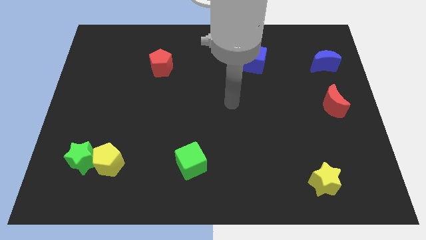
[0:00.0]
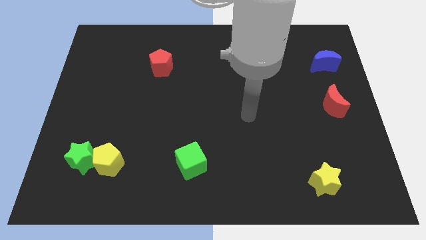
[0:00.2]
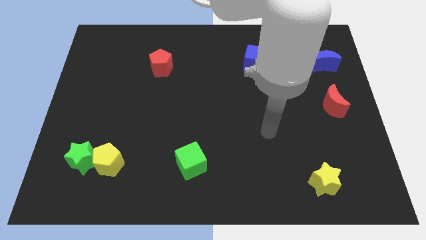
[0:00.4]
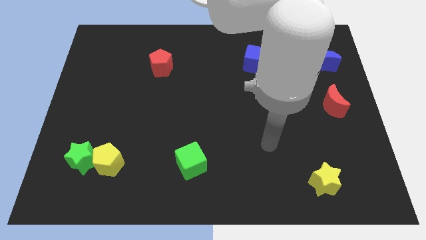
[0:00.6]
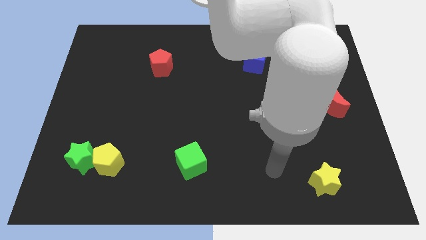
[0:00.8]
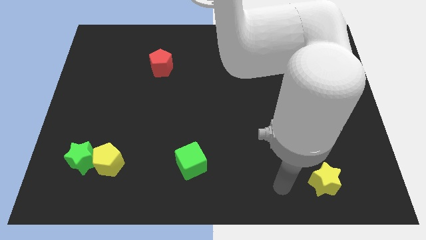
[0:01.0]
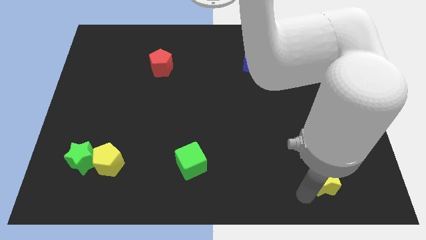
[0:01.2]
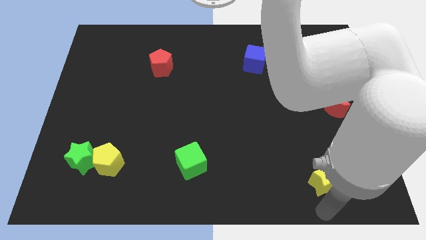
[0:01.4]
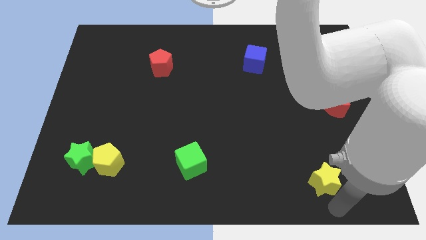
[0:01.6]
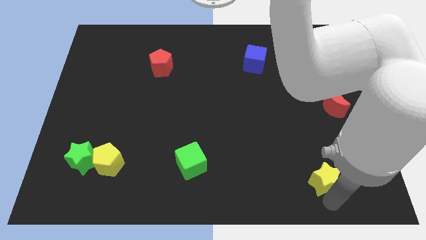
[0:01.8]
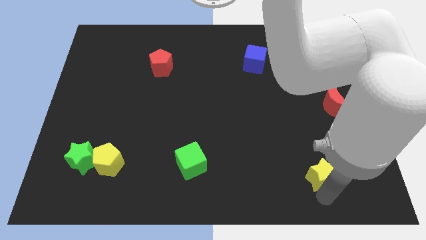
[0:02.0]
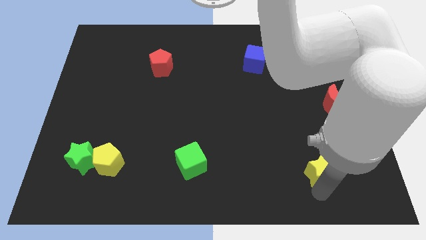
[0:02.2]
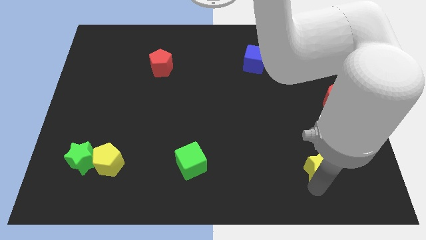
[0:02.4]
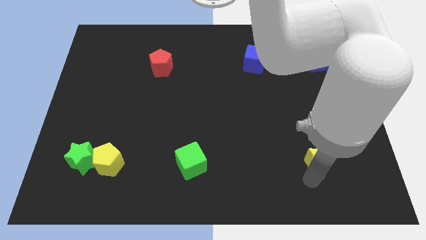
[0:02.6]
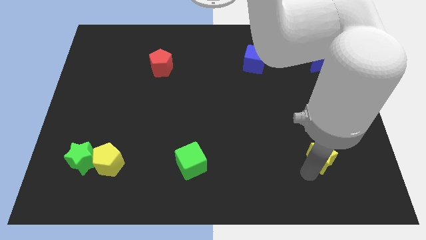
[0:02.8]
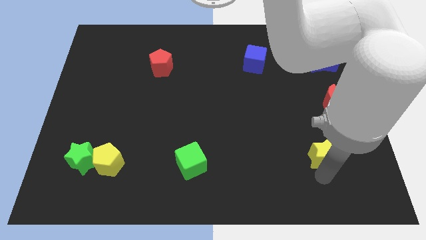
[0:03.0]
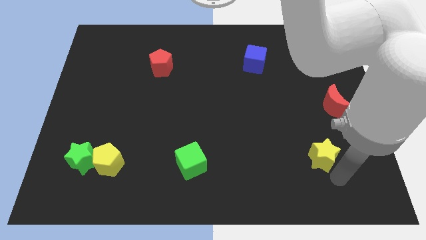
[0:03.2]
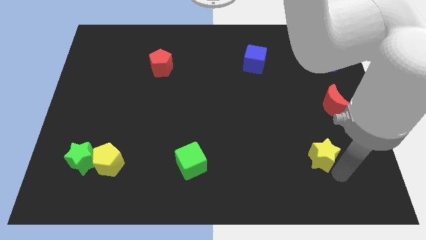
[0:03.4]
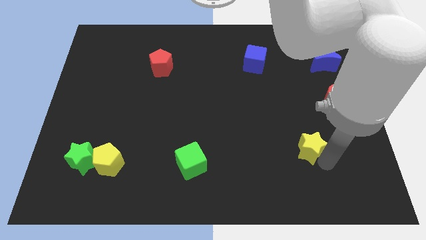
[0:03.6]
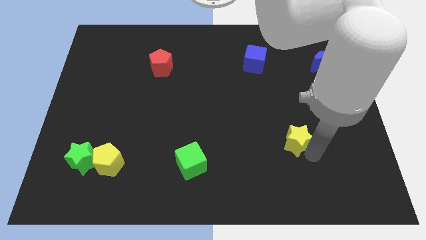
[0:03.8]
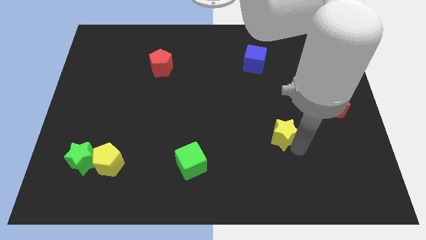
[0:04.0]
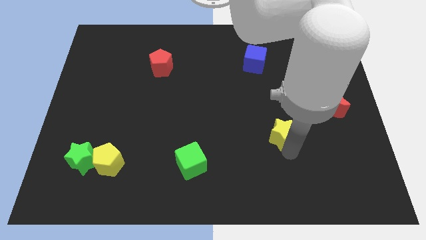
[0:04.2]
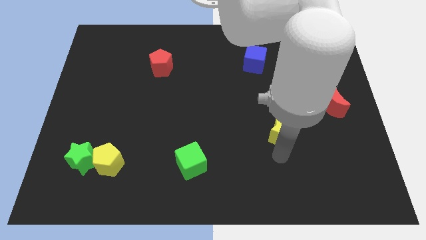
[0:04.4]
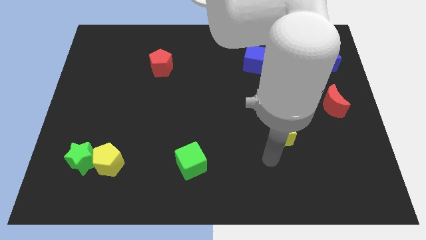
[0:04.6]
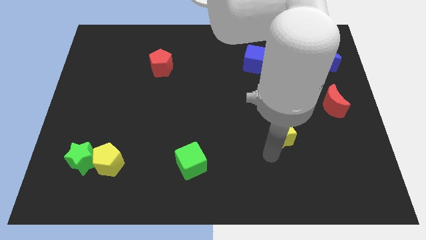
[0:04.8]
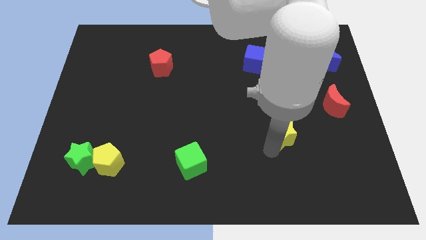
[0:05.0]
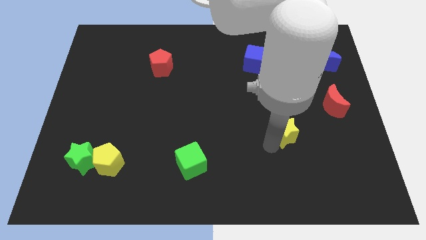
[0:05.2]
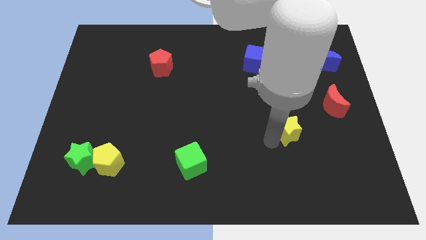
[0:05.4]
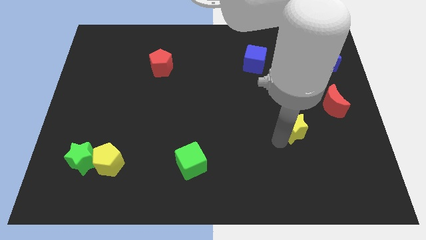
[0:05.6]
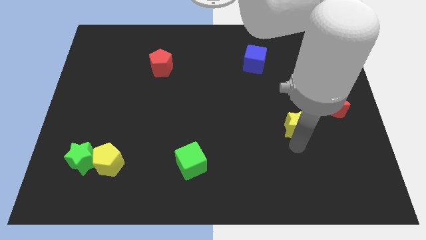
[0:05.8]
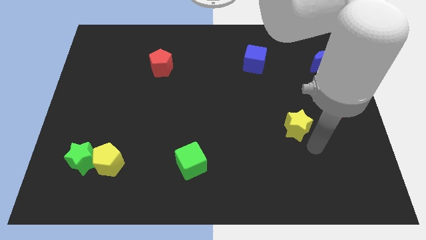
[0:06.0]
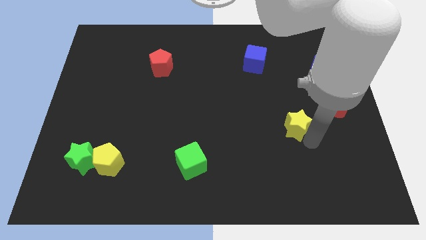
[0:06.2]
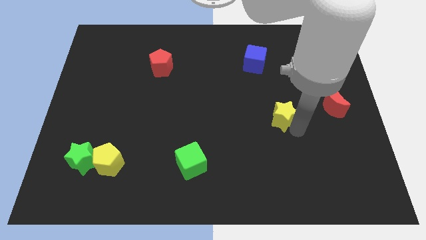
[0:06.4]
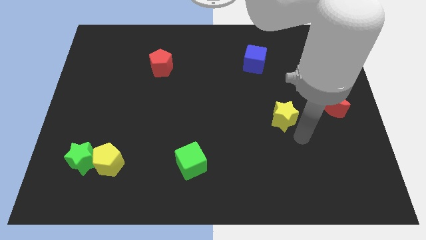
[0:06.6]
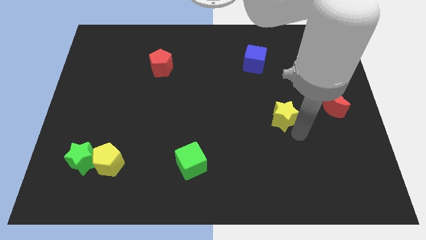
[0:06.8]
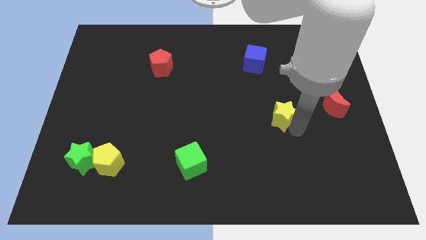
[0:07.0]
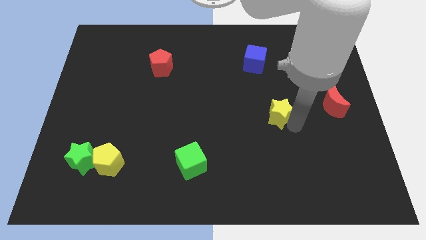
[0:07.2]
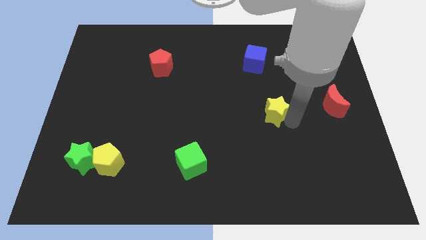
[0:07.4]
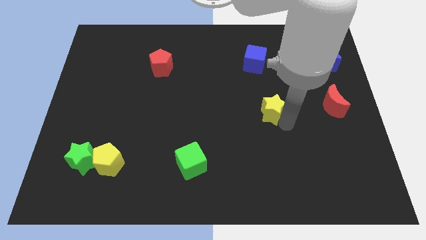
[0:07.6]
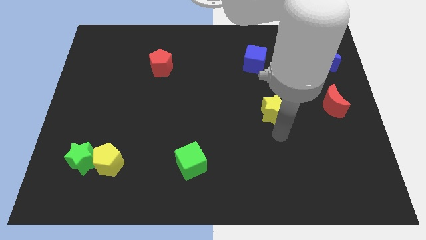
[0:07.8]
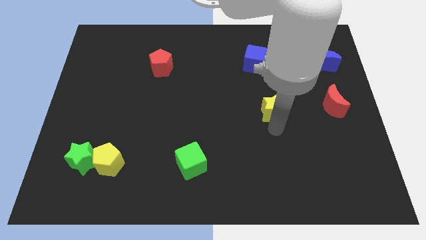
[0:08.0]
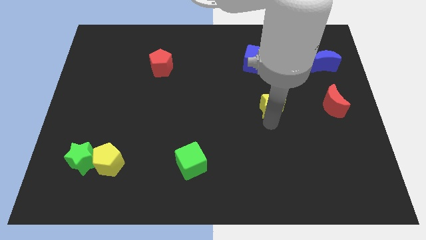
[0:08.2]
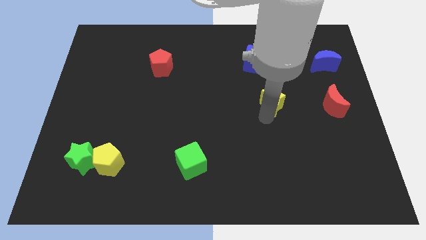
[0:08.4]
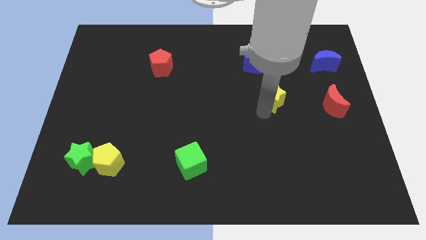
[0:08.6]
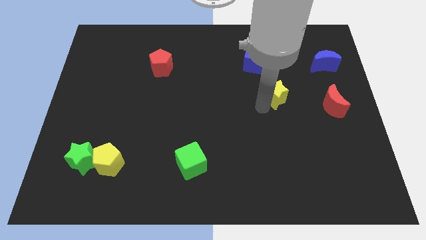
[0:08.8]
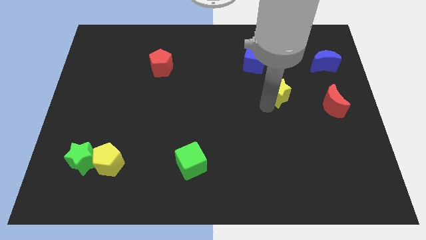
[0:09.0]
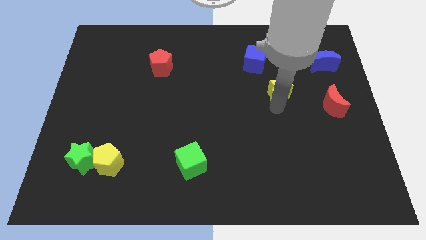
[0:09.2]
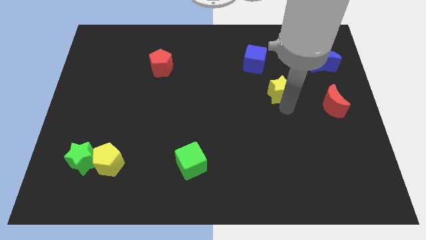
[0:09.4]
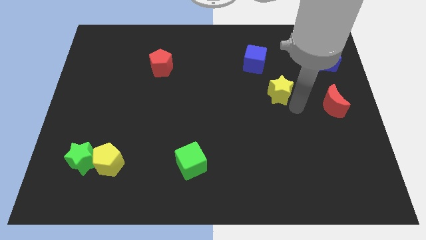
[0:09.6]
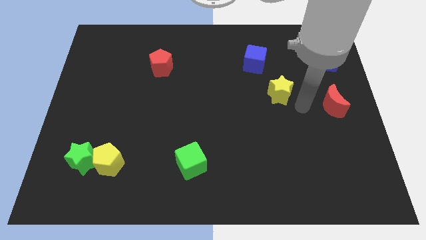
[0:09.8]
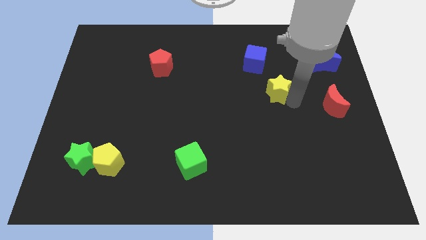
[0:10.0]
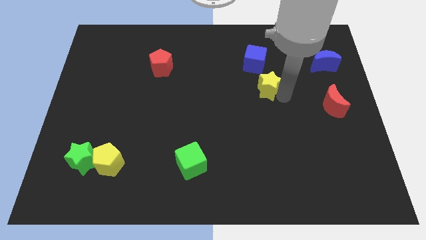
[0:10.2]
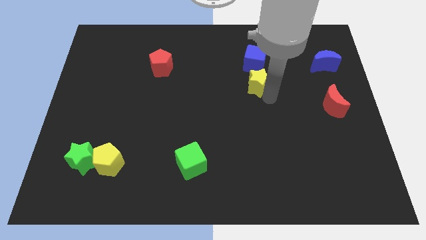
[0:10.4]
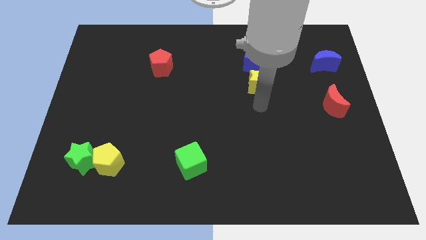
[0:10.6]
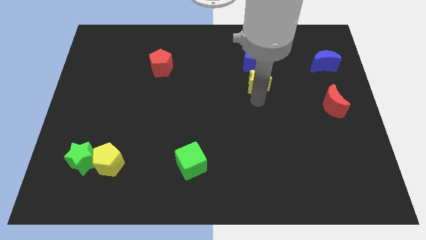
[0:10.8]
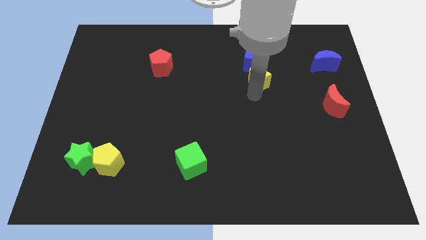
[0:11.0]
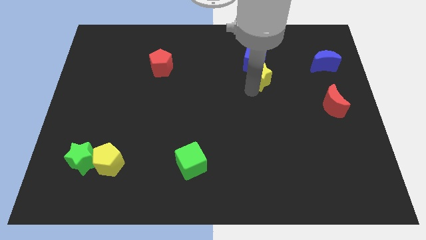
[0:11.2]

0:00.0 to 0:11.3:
slide the yellow star close to the blue cube

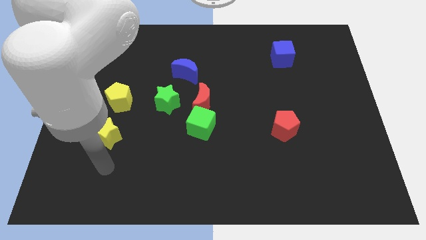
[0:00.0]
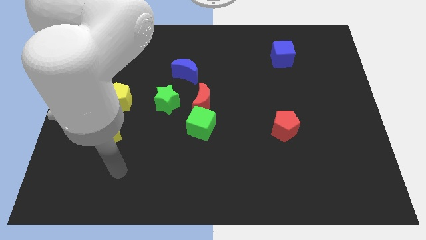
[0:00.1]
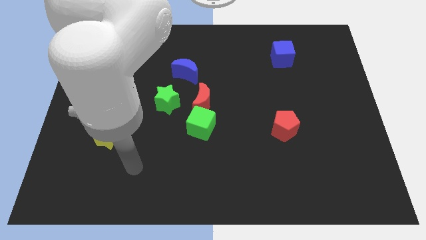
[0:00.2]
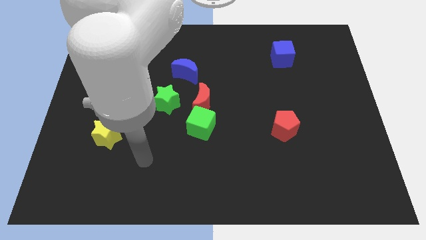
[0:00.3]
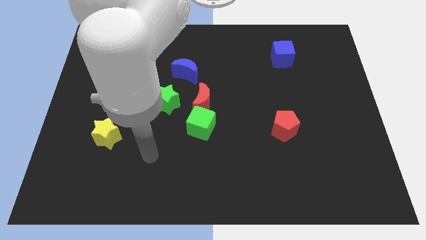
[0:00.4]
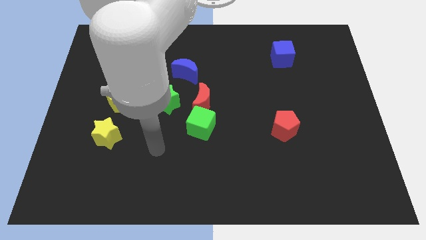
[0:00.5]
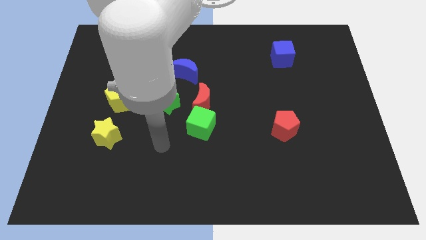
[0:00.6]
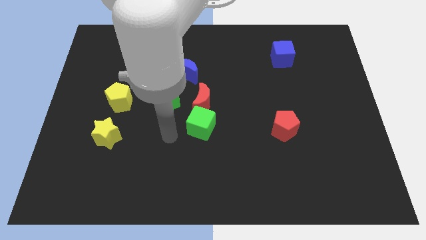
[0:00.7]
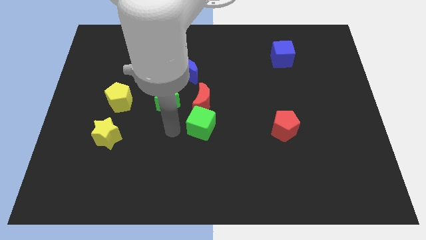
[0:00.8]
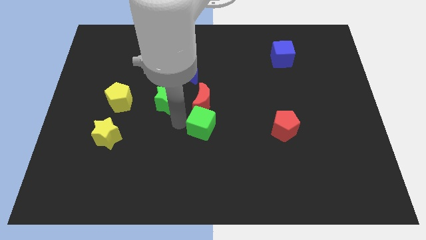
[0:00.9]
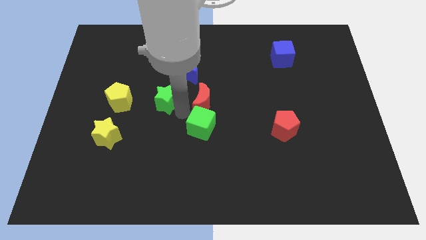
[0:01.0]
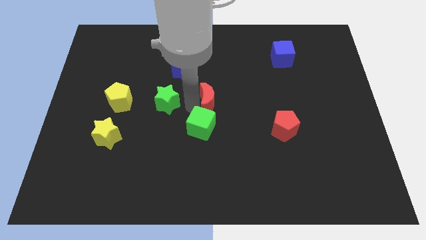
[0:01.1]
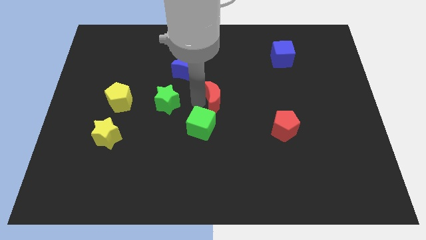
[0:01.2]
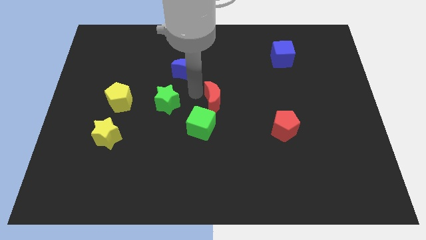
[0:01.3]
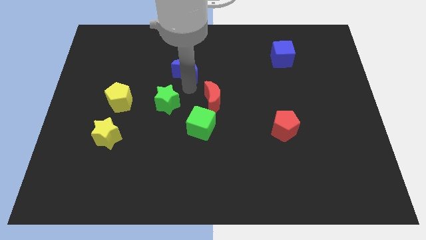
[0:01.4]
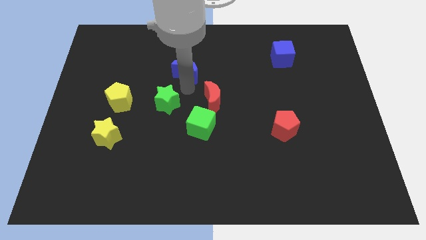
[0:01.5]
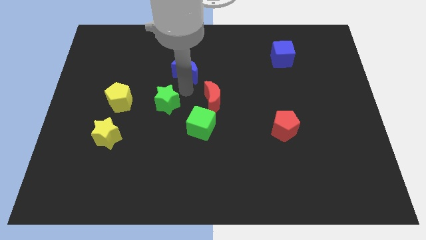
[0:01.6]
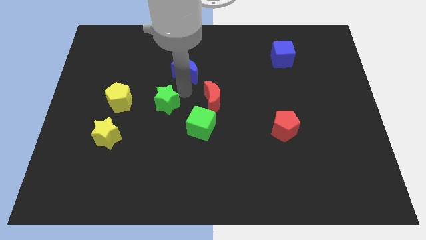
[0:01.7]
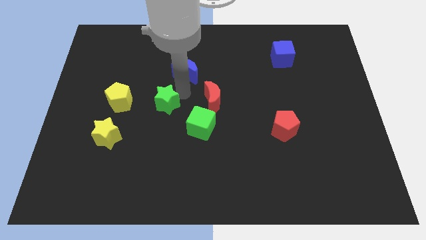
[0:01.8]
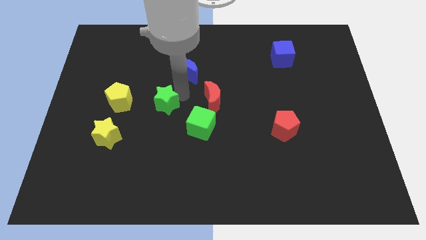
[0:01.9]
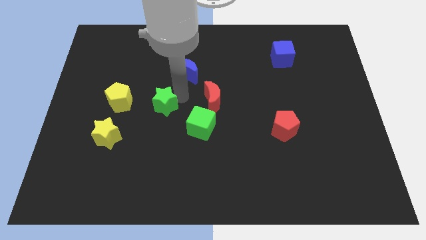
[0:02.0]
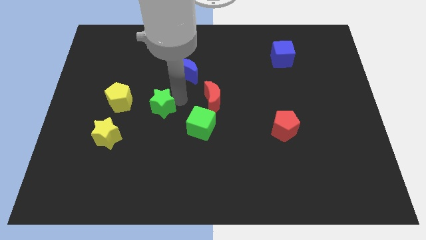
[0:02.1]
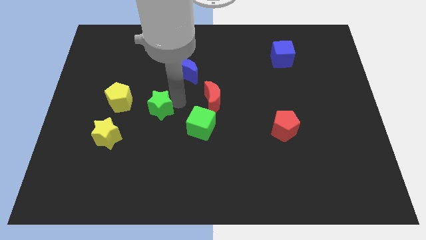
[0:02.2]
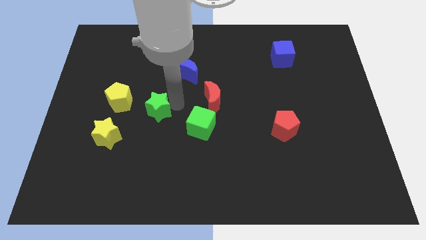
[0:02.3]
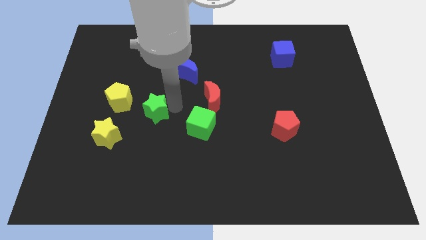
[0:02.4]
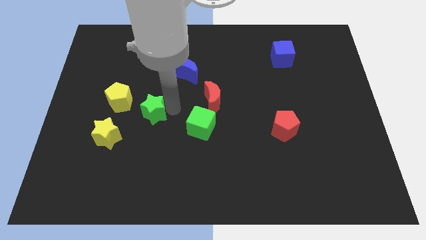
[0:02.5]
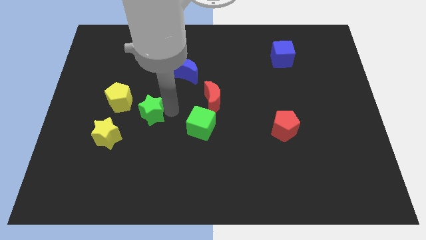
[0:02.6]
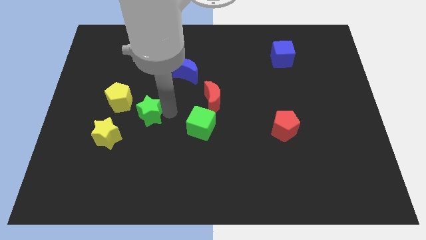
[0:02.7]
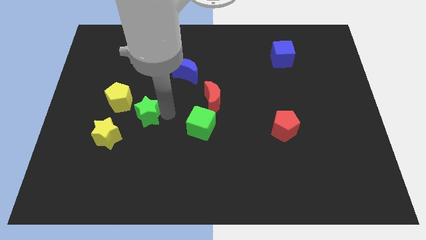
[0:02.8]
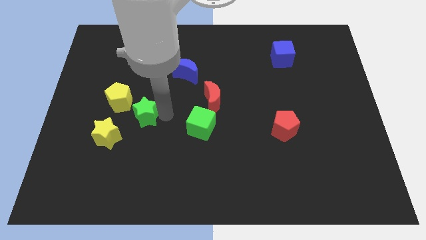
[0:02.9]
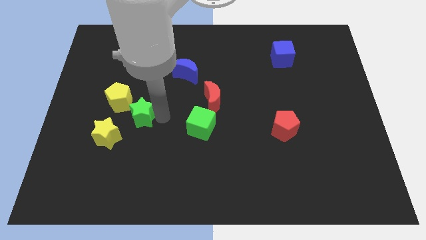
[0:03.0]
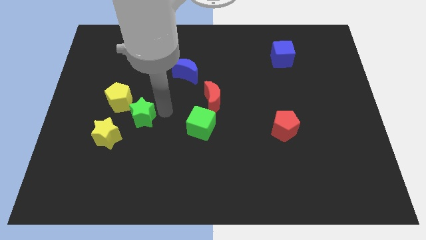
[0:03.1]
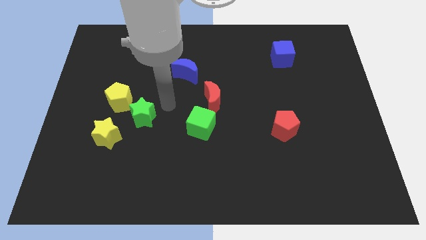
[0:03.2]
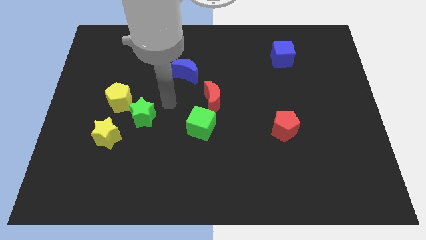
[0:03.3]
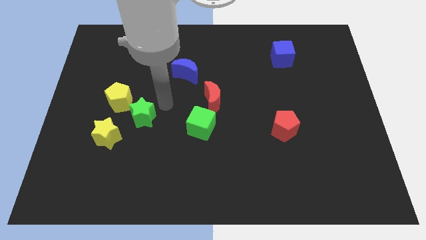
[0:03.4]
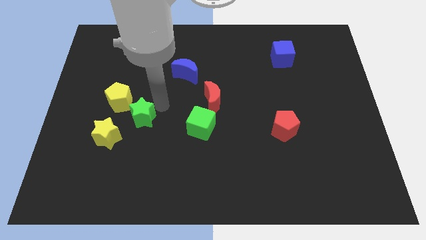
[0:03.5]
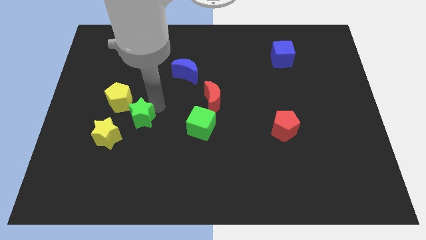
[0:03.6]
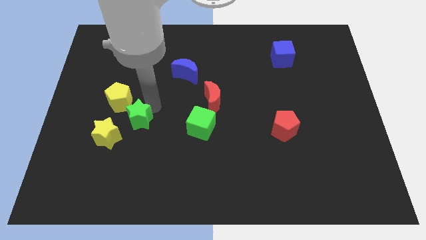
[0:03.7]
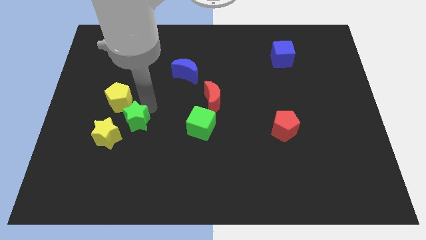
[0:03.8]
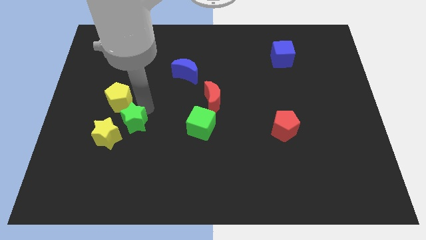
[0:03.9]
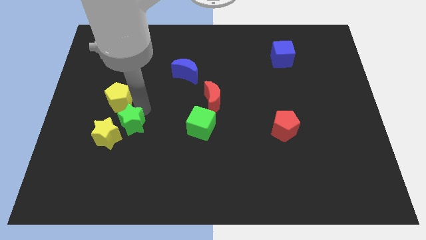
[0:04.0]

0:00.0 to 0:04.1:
put the green star to the yellow star
